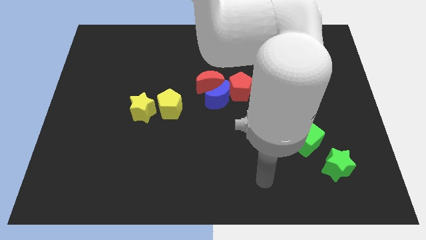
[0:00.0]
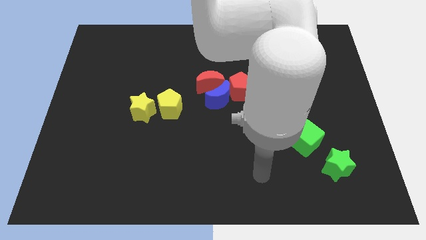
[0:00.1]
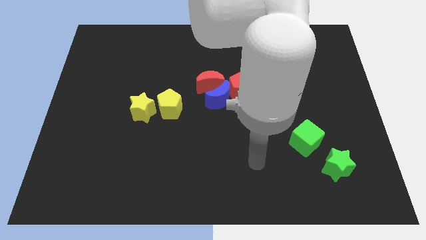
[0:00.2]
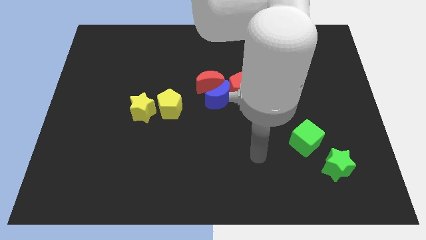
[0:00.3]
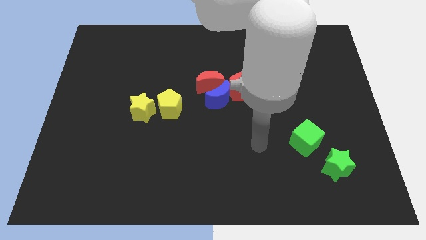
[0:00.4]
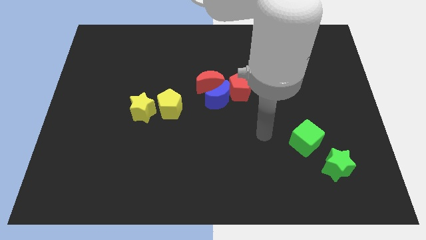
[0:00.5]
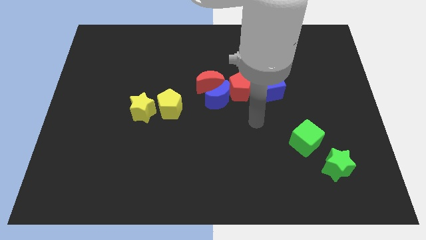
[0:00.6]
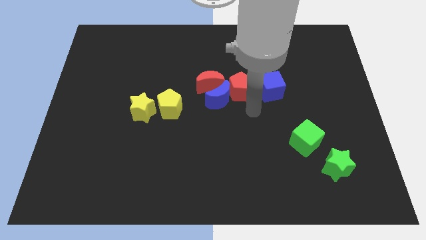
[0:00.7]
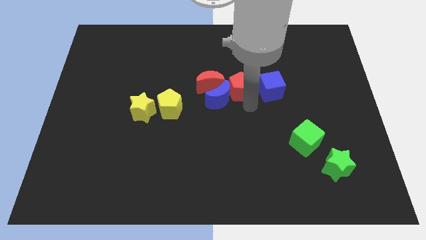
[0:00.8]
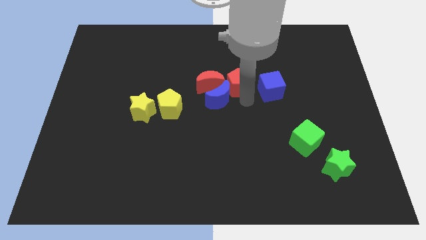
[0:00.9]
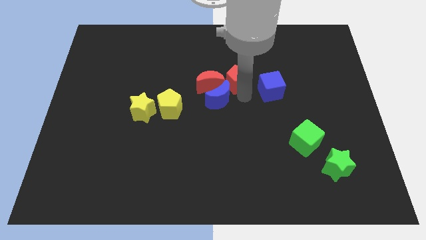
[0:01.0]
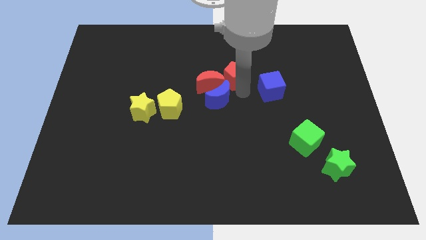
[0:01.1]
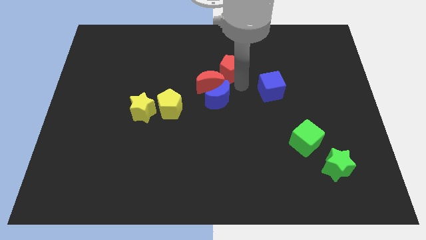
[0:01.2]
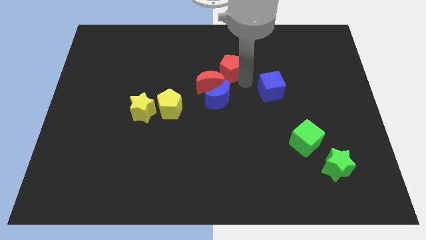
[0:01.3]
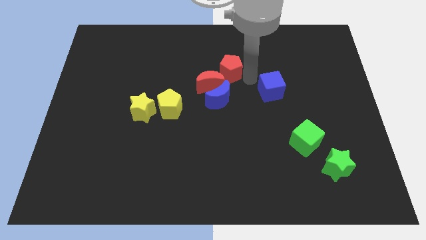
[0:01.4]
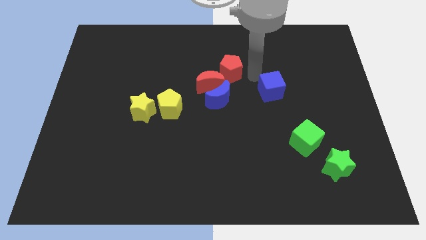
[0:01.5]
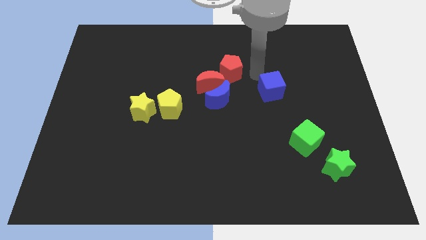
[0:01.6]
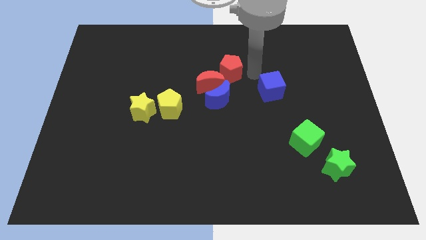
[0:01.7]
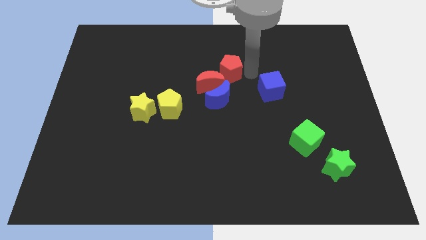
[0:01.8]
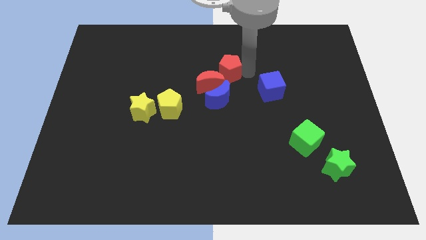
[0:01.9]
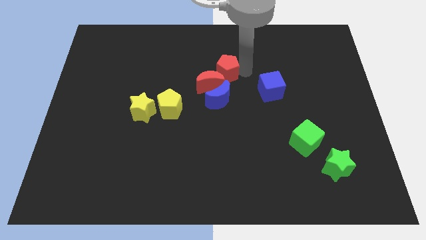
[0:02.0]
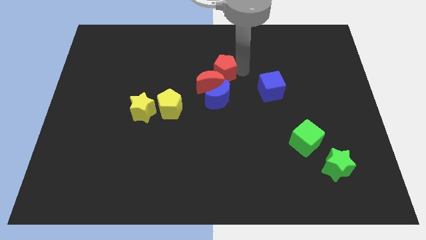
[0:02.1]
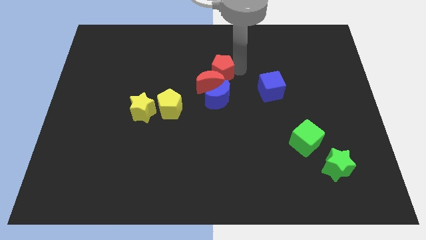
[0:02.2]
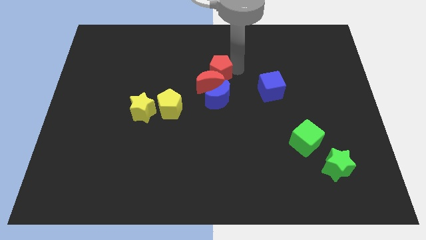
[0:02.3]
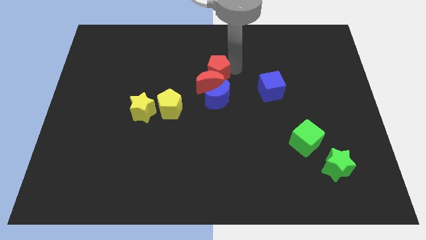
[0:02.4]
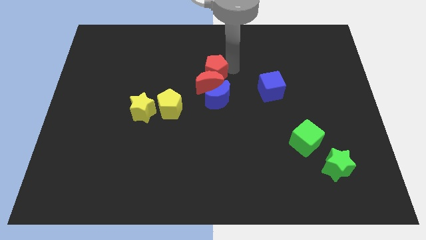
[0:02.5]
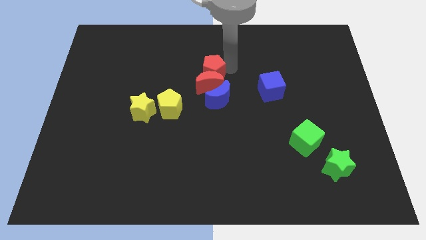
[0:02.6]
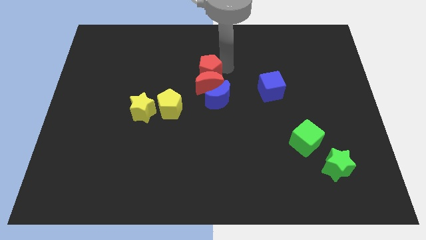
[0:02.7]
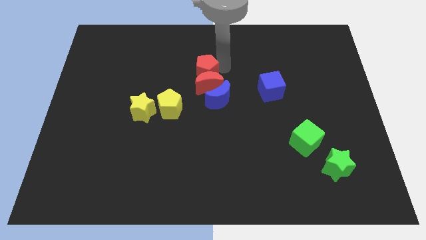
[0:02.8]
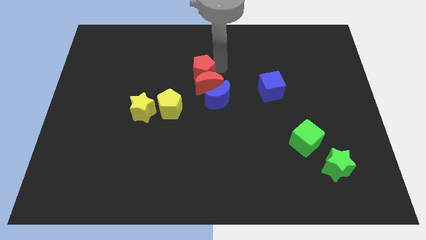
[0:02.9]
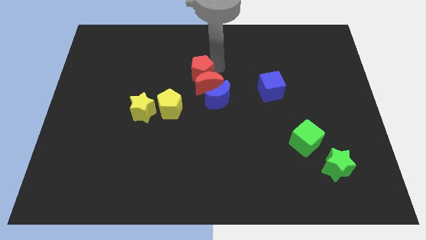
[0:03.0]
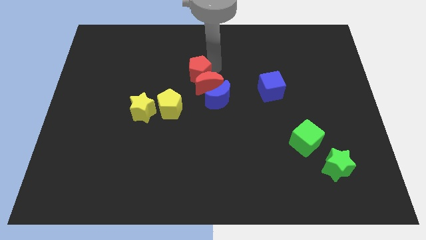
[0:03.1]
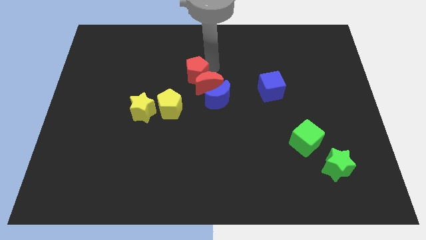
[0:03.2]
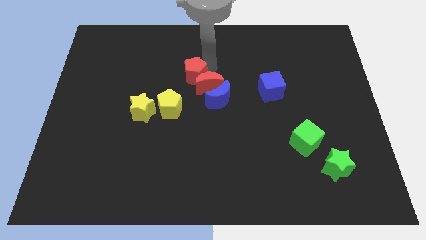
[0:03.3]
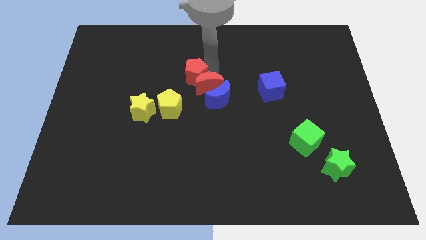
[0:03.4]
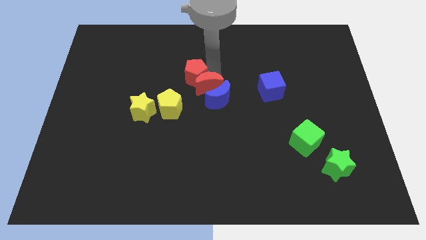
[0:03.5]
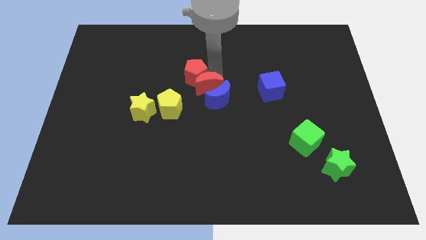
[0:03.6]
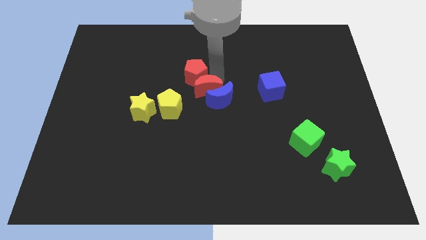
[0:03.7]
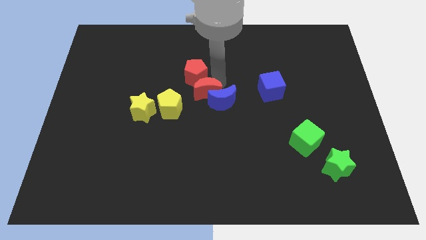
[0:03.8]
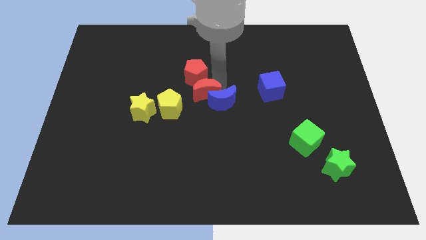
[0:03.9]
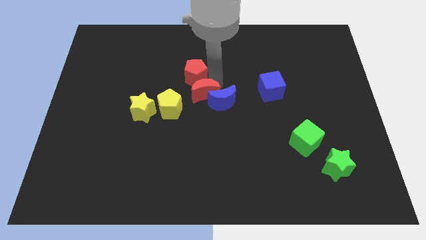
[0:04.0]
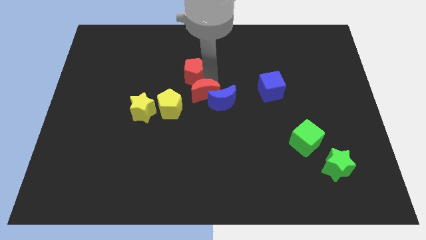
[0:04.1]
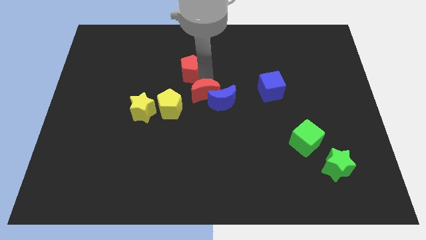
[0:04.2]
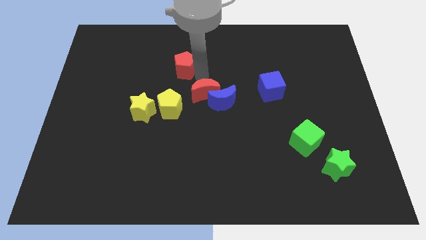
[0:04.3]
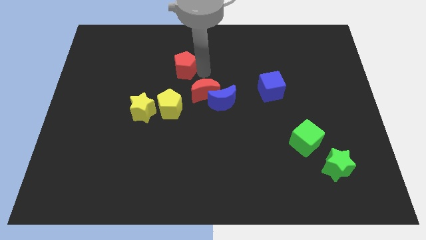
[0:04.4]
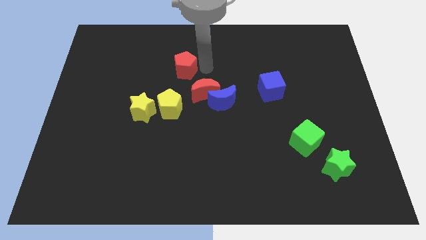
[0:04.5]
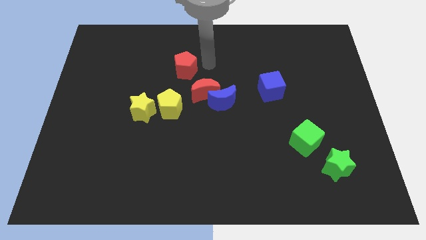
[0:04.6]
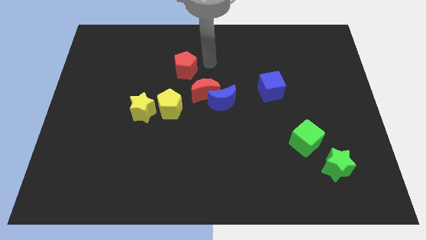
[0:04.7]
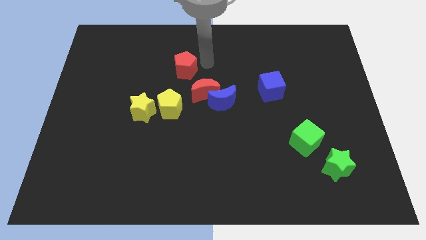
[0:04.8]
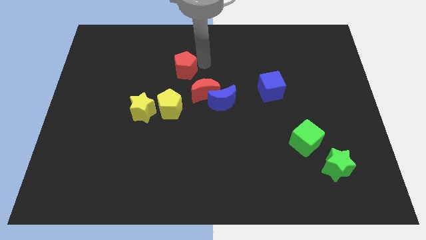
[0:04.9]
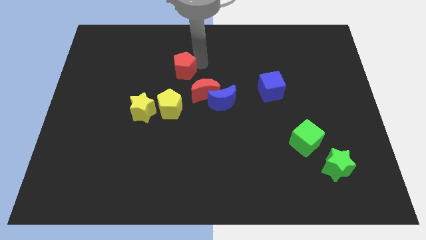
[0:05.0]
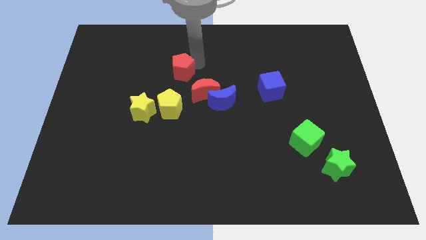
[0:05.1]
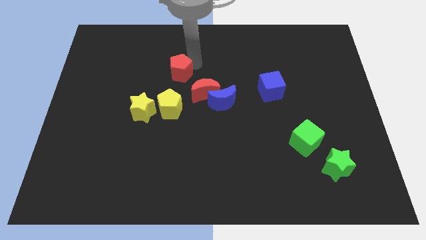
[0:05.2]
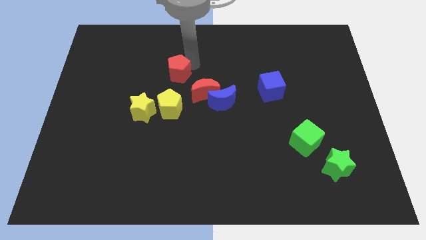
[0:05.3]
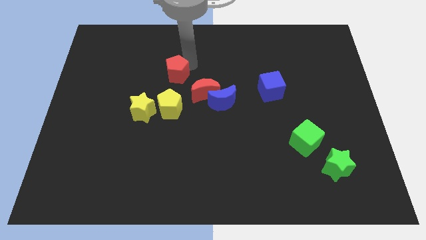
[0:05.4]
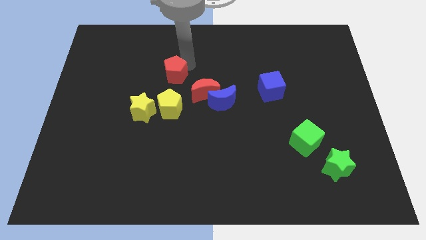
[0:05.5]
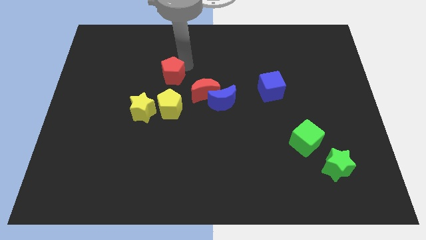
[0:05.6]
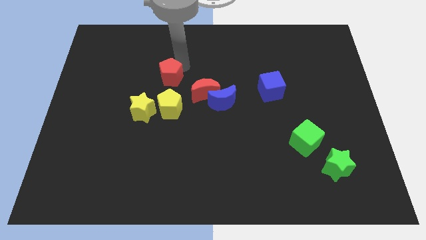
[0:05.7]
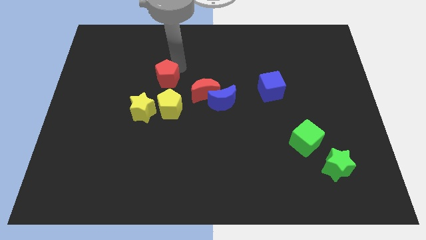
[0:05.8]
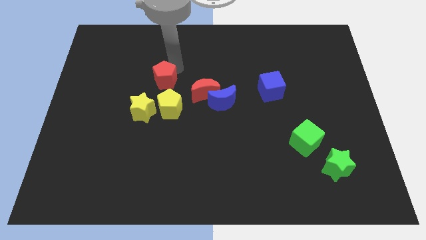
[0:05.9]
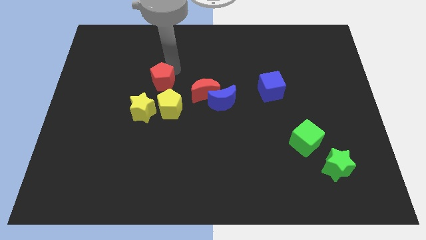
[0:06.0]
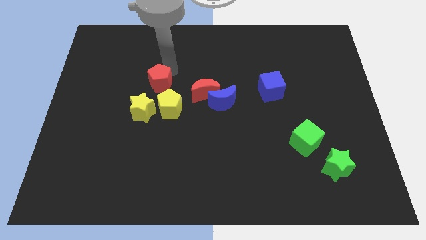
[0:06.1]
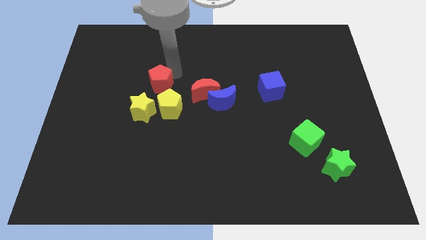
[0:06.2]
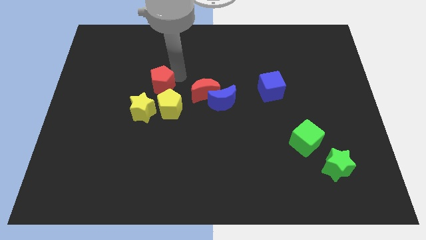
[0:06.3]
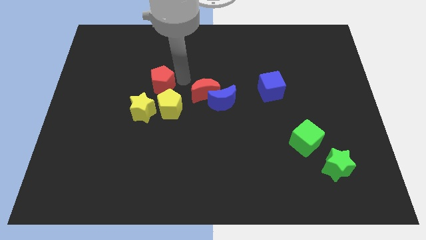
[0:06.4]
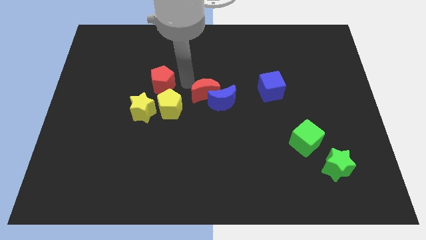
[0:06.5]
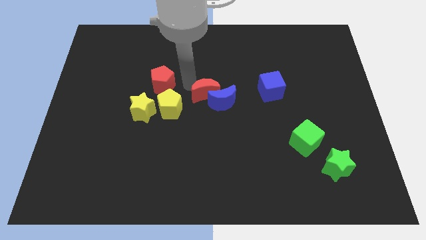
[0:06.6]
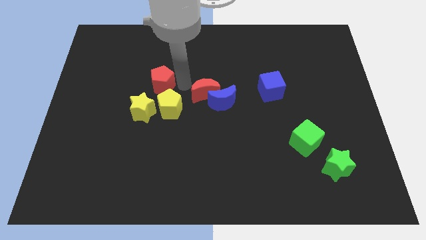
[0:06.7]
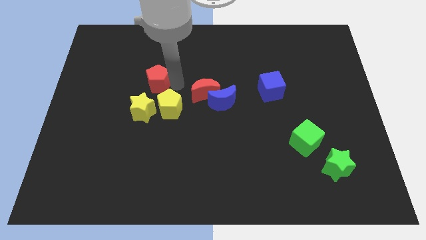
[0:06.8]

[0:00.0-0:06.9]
push the red pentagon left

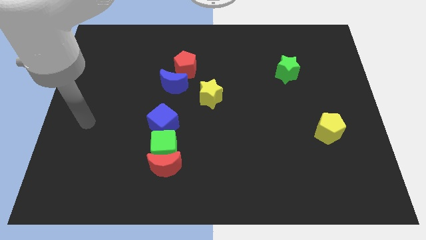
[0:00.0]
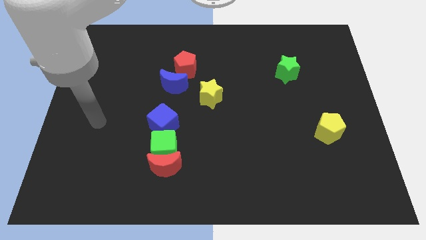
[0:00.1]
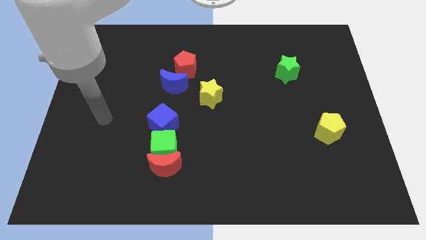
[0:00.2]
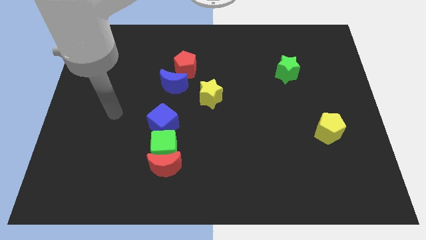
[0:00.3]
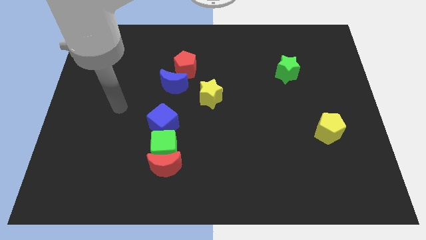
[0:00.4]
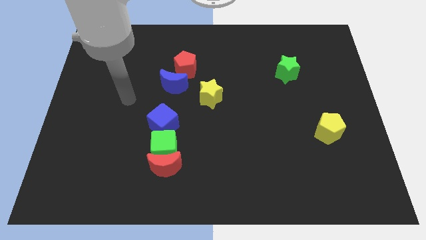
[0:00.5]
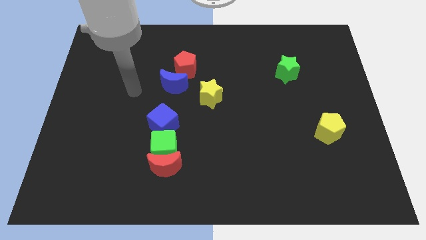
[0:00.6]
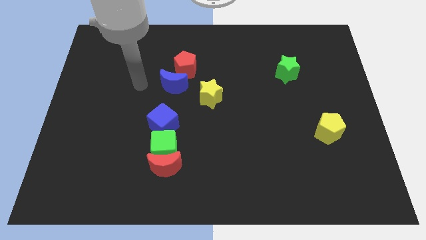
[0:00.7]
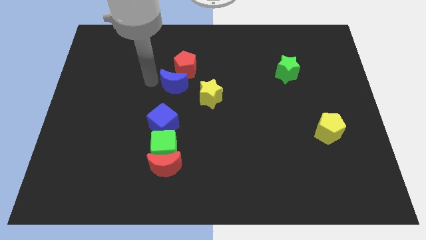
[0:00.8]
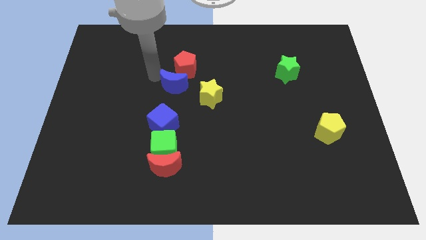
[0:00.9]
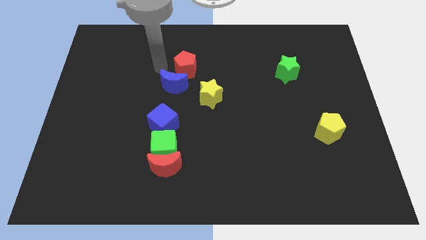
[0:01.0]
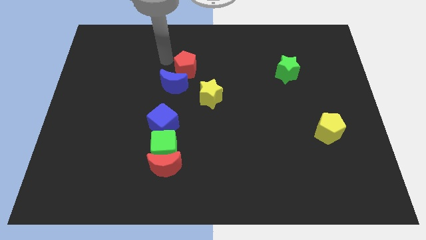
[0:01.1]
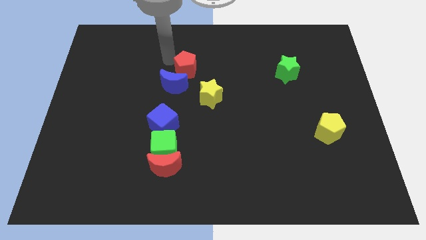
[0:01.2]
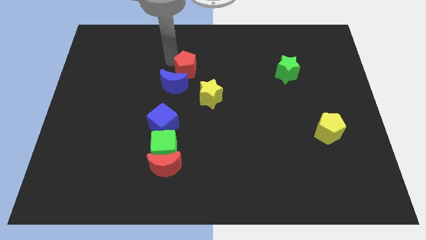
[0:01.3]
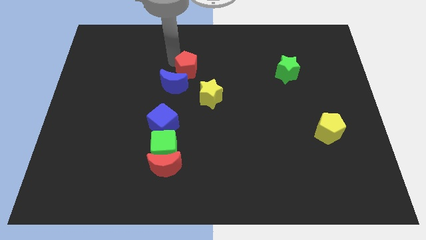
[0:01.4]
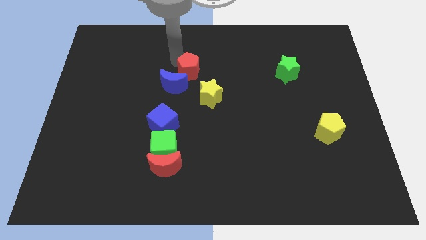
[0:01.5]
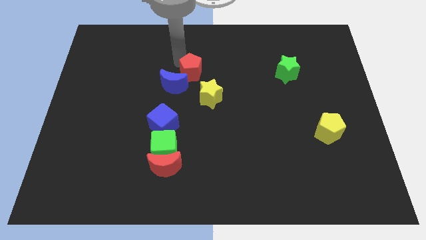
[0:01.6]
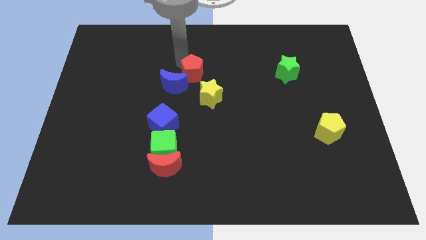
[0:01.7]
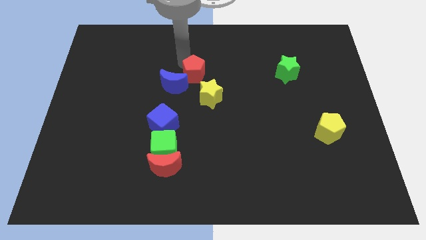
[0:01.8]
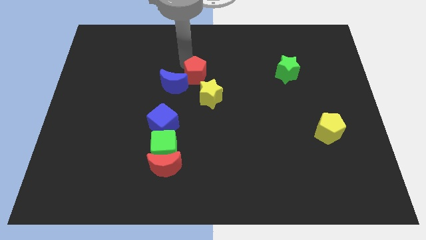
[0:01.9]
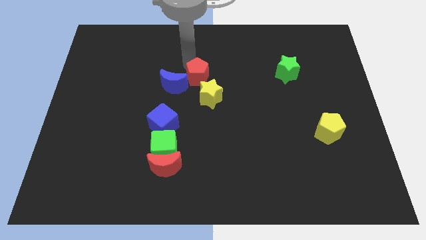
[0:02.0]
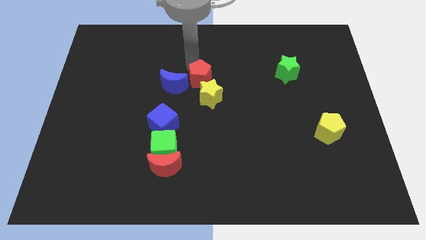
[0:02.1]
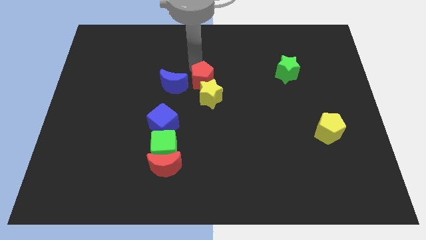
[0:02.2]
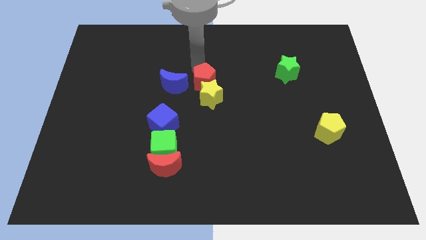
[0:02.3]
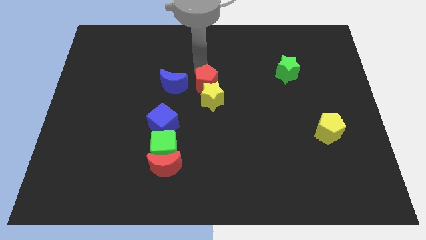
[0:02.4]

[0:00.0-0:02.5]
slightly push the red pentagon down and right diagonally
